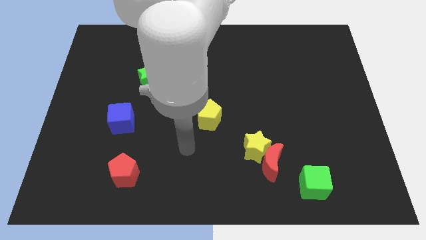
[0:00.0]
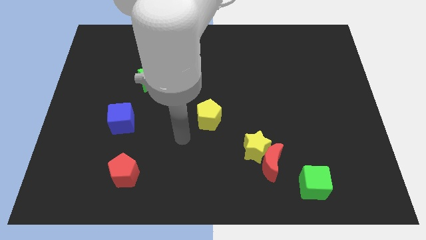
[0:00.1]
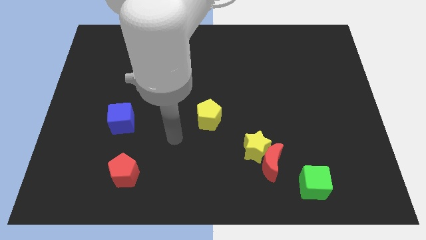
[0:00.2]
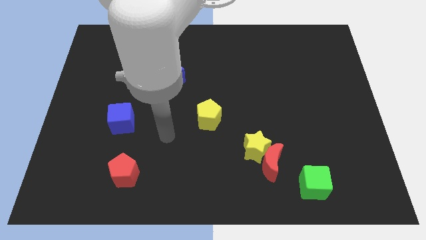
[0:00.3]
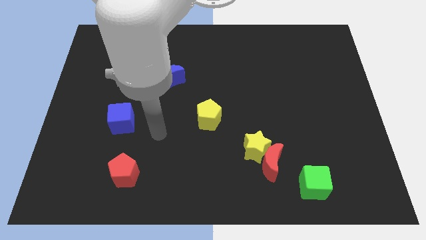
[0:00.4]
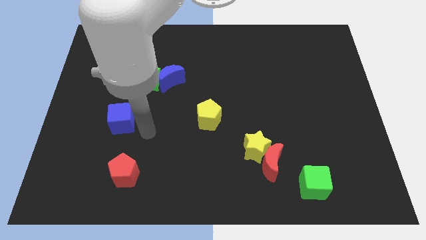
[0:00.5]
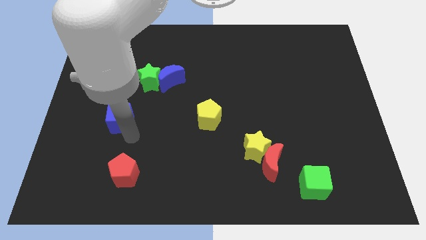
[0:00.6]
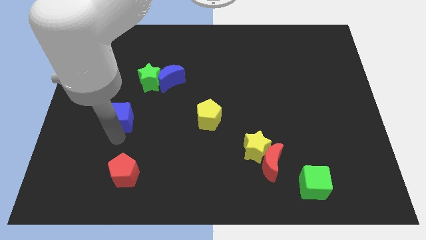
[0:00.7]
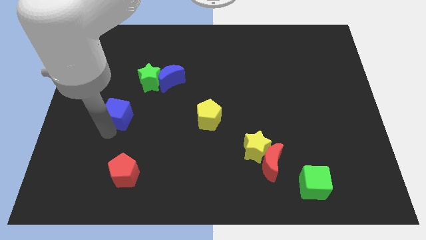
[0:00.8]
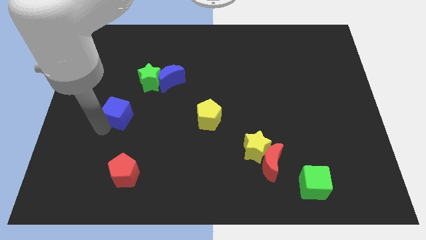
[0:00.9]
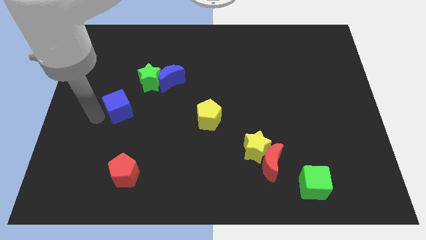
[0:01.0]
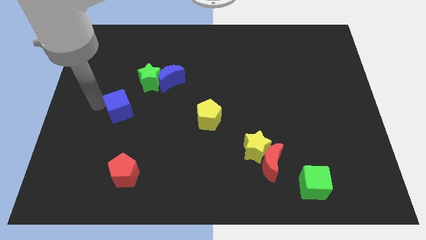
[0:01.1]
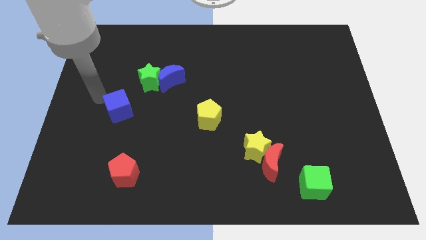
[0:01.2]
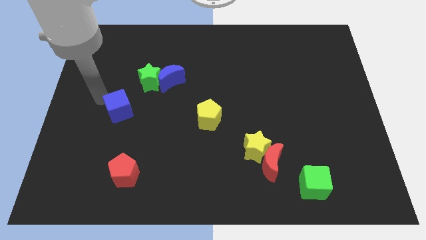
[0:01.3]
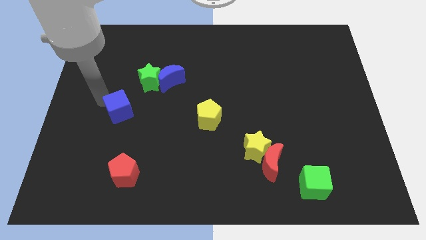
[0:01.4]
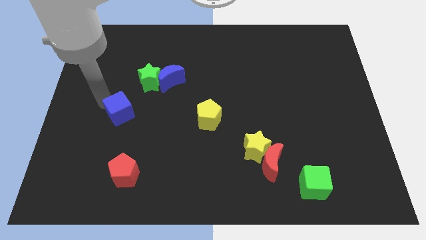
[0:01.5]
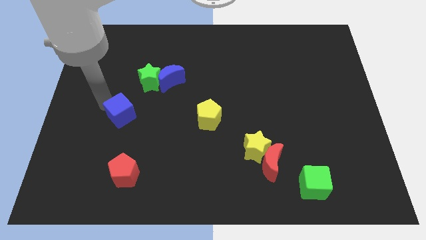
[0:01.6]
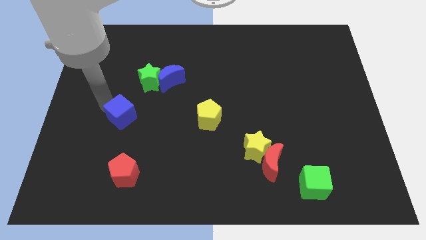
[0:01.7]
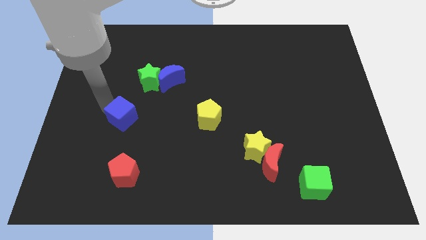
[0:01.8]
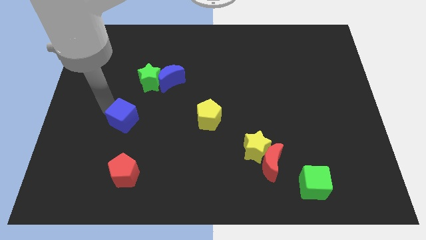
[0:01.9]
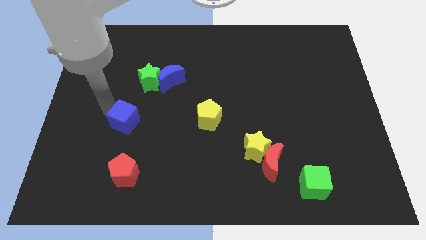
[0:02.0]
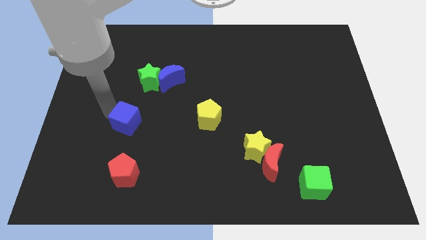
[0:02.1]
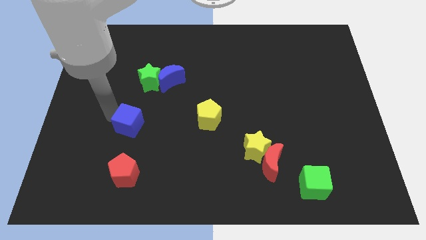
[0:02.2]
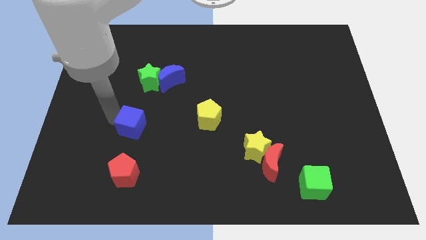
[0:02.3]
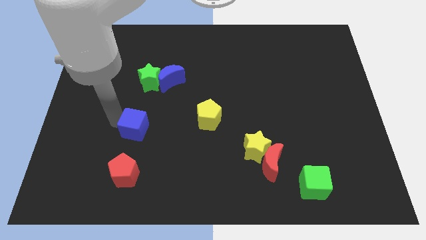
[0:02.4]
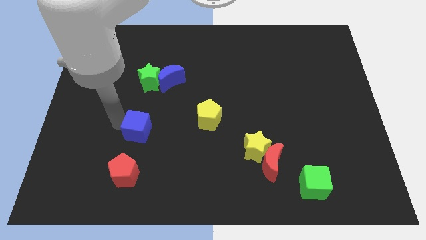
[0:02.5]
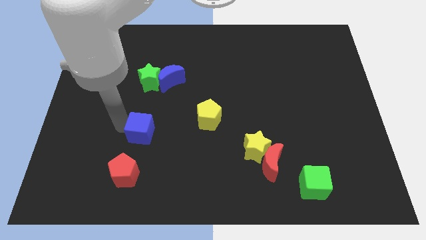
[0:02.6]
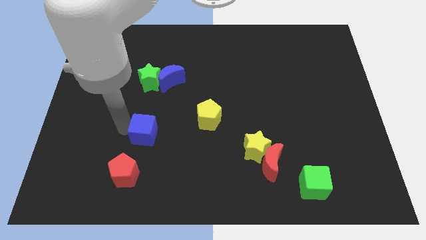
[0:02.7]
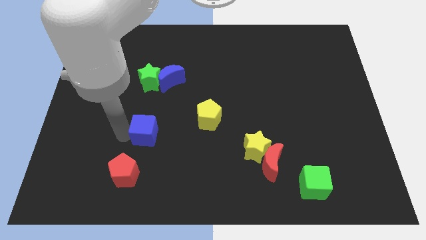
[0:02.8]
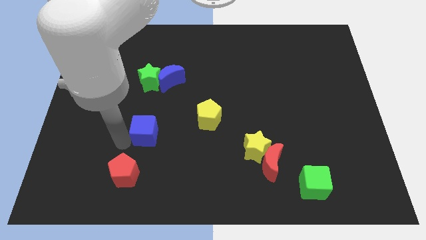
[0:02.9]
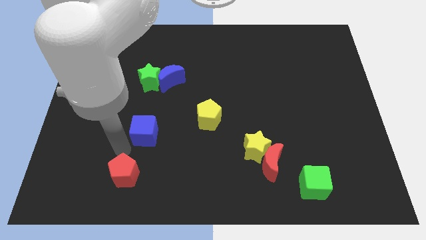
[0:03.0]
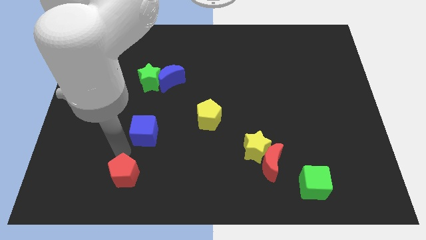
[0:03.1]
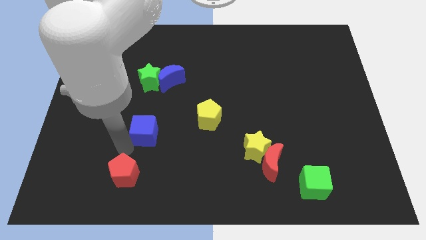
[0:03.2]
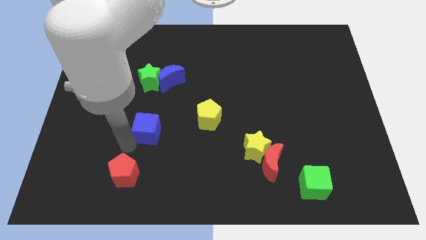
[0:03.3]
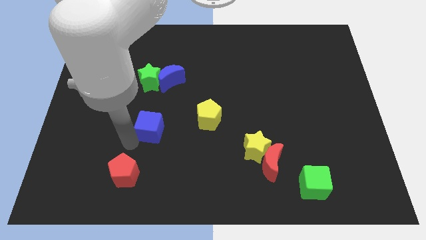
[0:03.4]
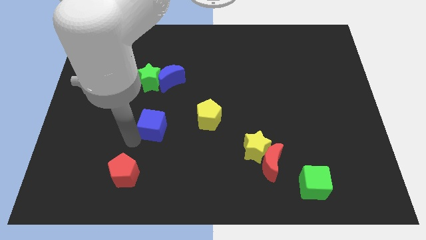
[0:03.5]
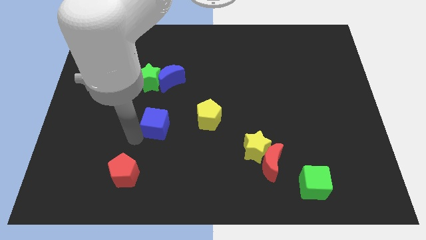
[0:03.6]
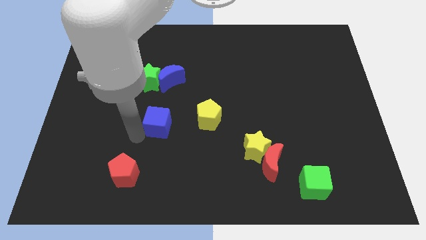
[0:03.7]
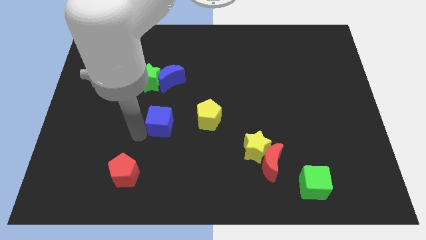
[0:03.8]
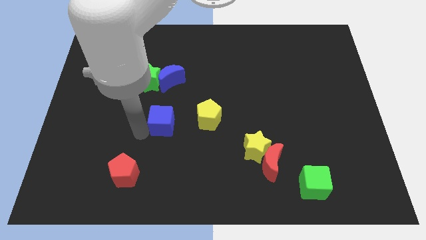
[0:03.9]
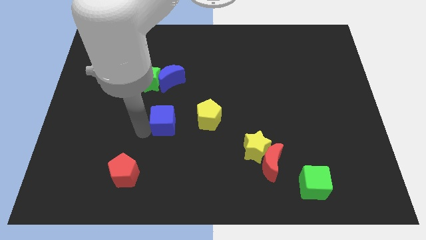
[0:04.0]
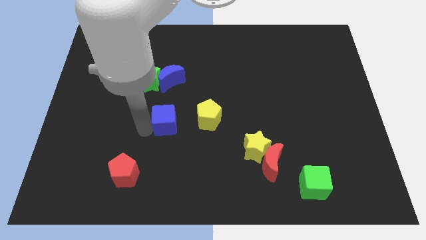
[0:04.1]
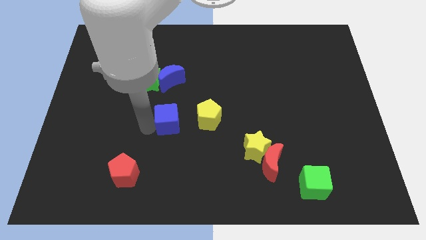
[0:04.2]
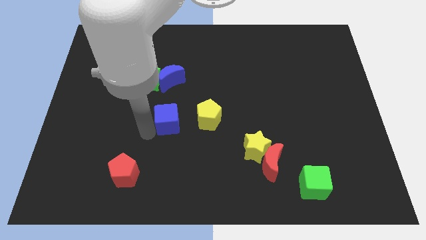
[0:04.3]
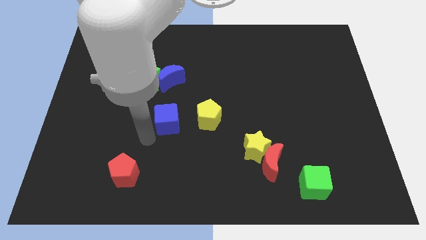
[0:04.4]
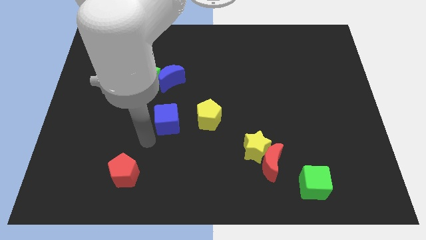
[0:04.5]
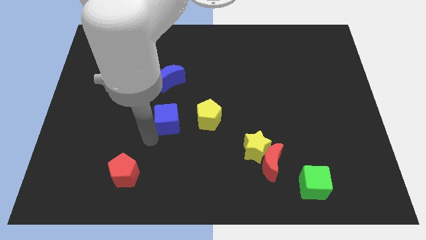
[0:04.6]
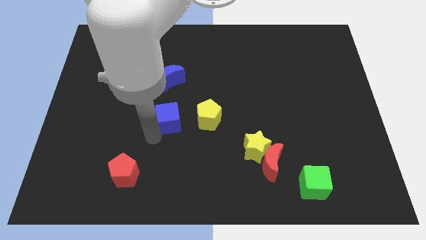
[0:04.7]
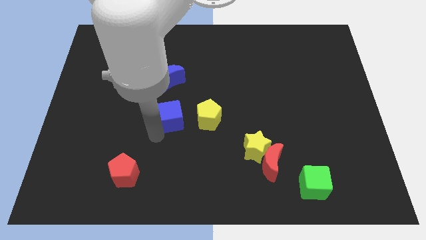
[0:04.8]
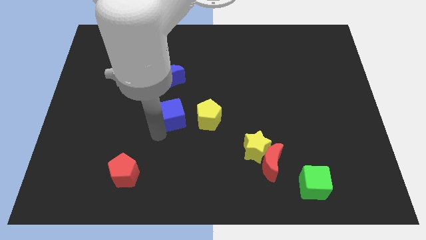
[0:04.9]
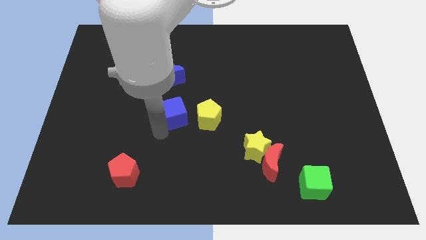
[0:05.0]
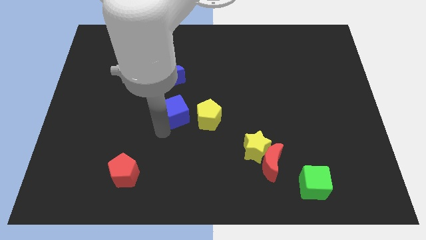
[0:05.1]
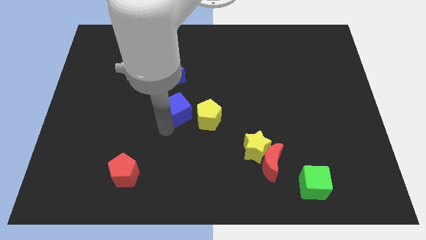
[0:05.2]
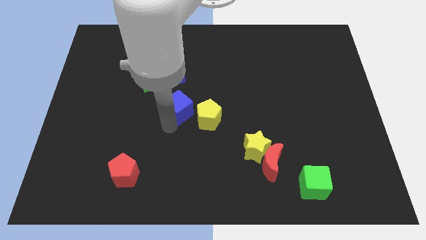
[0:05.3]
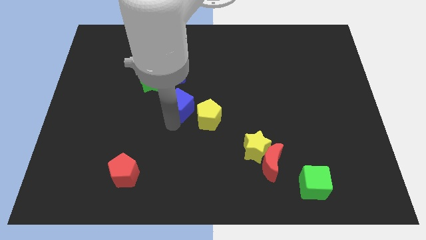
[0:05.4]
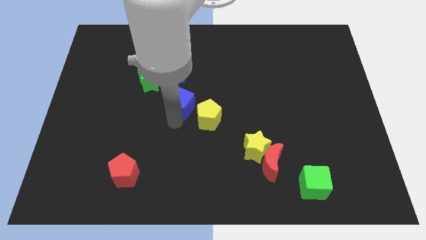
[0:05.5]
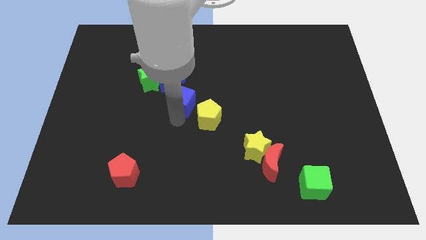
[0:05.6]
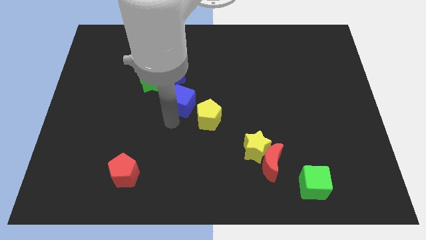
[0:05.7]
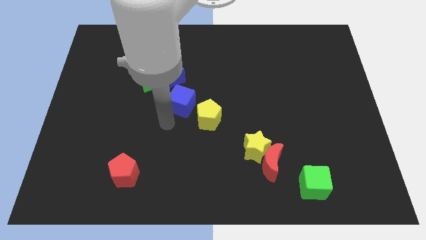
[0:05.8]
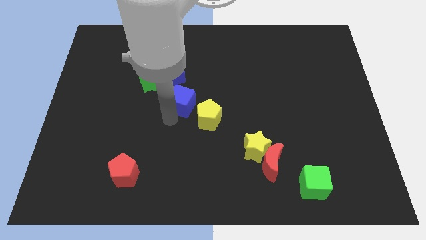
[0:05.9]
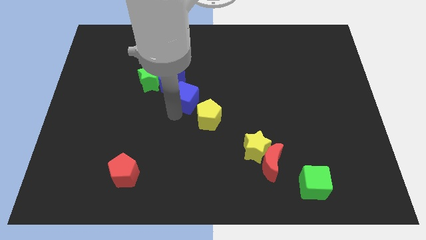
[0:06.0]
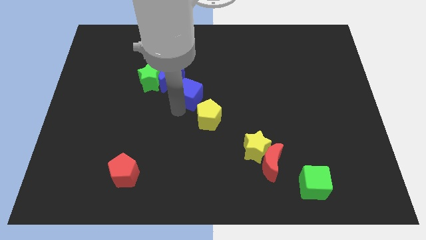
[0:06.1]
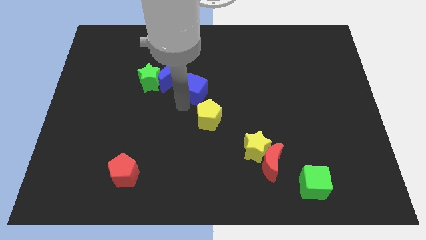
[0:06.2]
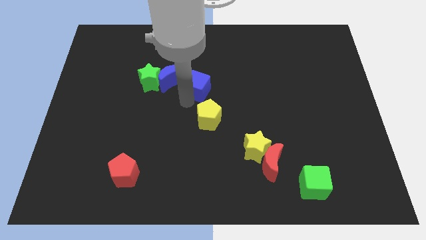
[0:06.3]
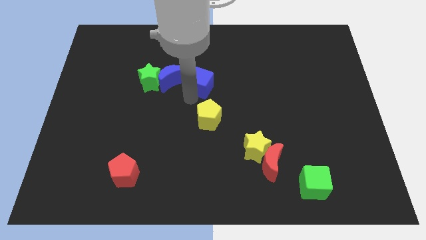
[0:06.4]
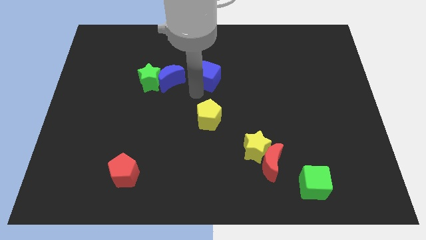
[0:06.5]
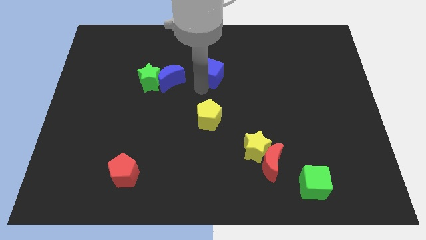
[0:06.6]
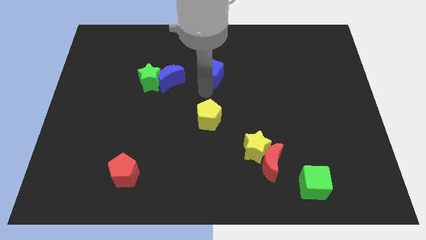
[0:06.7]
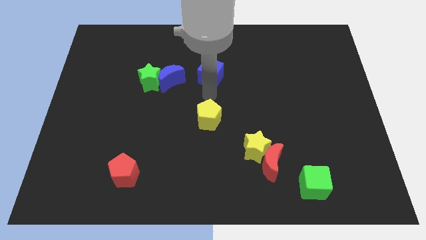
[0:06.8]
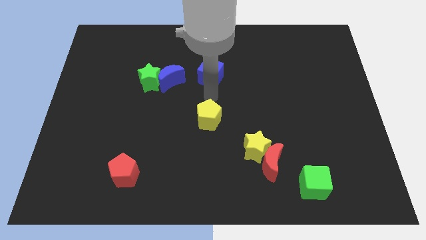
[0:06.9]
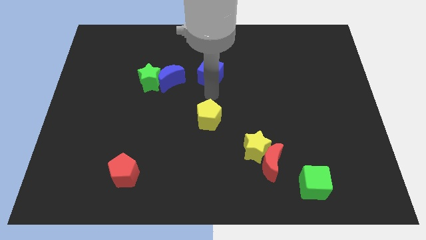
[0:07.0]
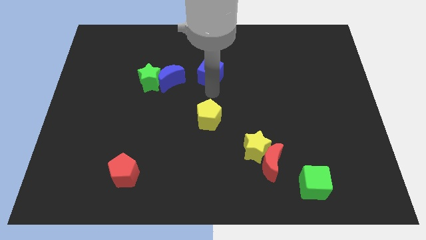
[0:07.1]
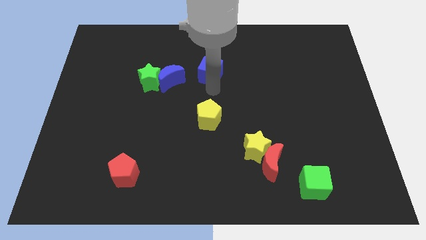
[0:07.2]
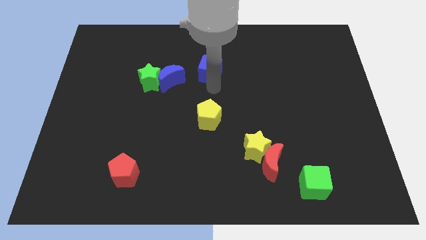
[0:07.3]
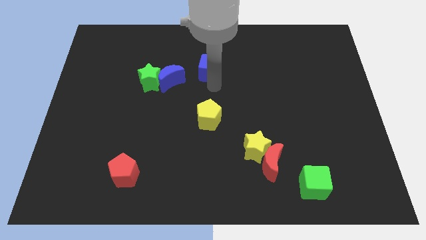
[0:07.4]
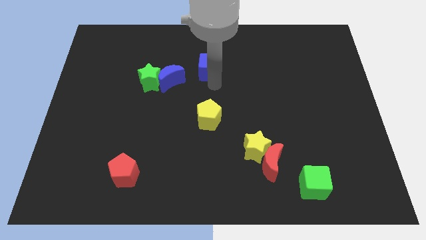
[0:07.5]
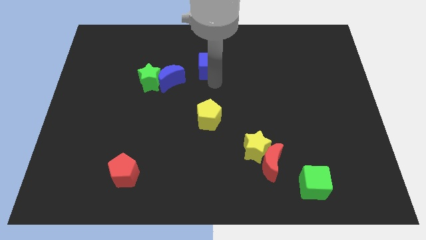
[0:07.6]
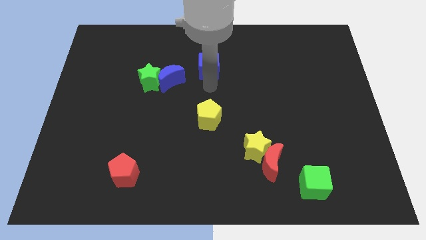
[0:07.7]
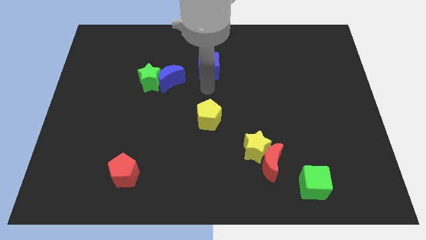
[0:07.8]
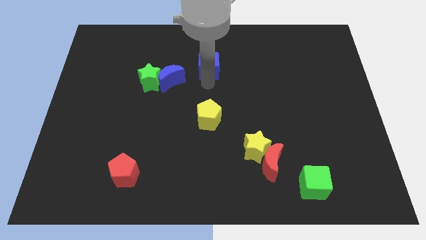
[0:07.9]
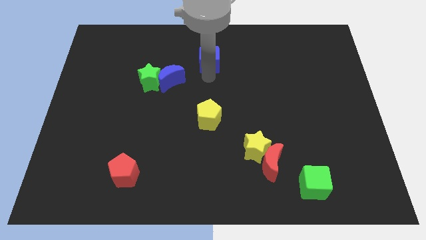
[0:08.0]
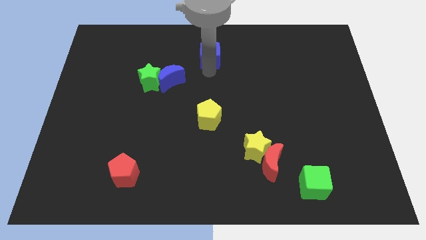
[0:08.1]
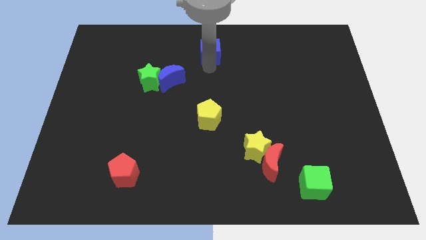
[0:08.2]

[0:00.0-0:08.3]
slide the blue cube to the top side
